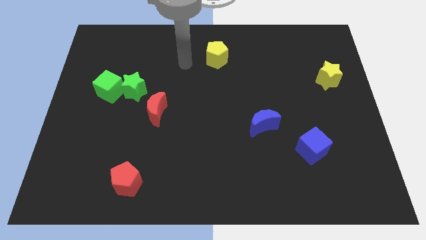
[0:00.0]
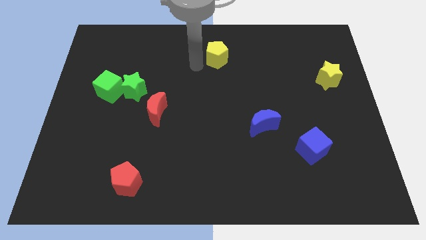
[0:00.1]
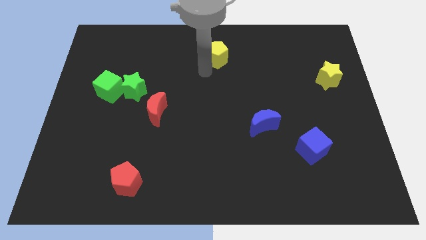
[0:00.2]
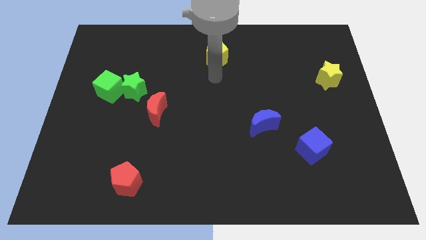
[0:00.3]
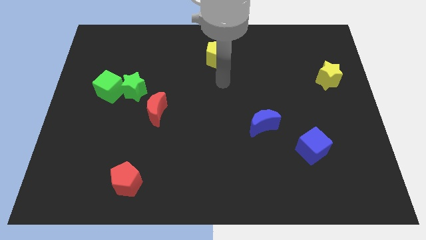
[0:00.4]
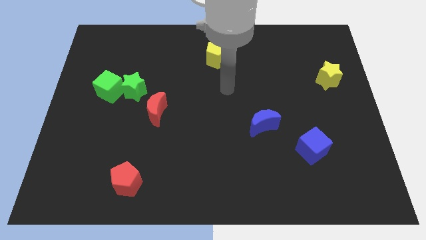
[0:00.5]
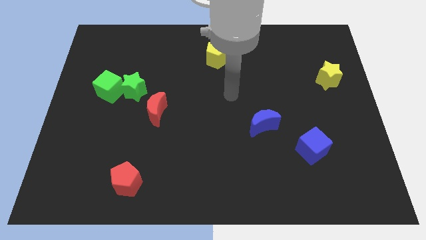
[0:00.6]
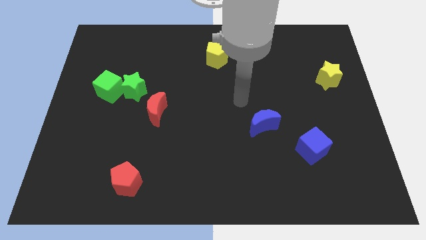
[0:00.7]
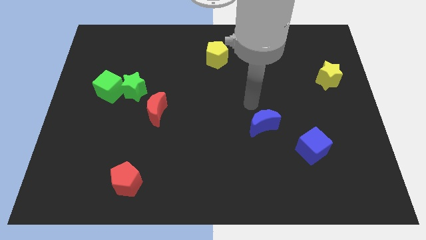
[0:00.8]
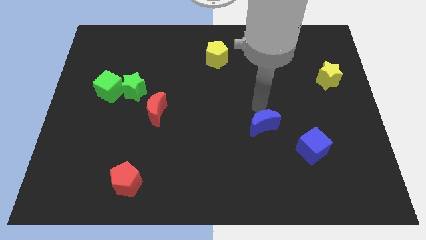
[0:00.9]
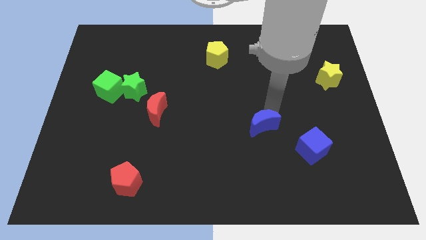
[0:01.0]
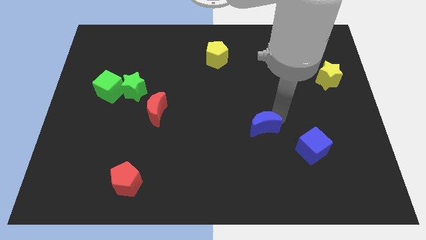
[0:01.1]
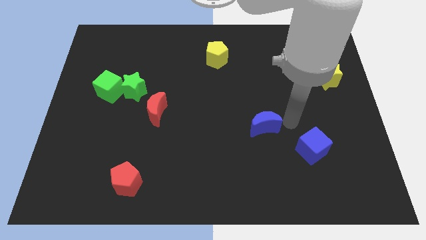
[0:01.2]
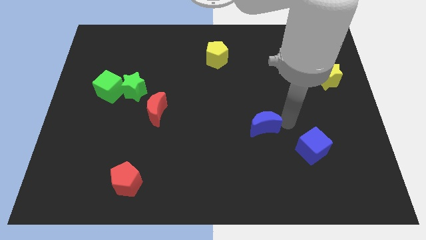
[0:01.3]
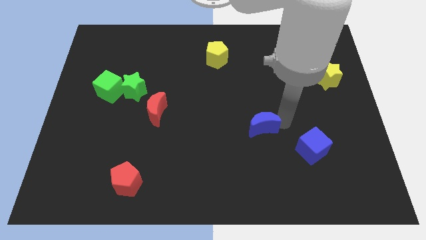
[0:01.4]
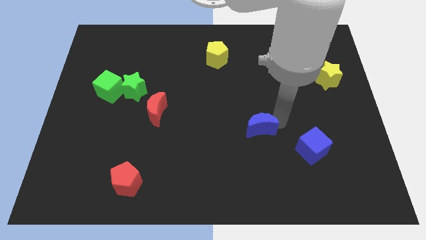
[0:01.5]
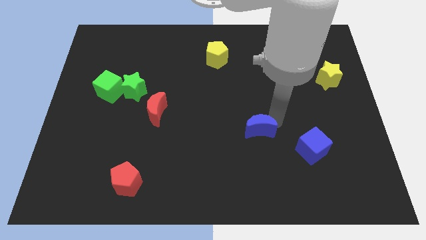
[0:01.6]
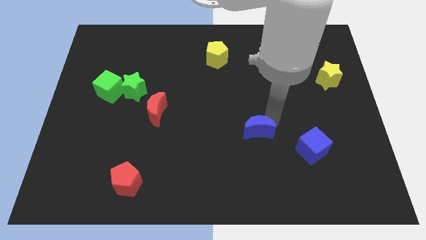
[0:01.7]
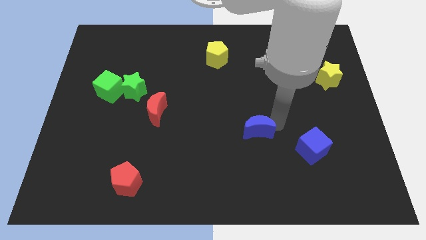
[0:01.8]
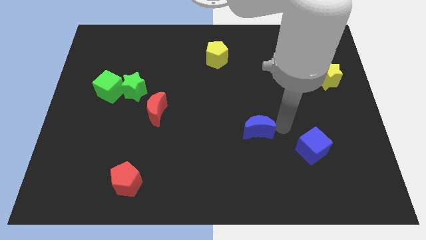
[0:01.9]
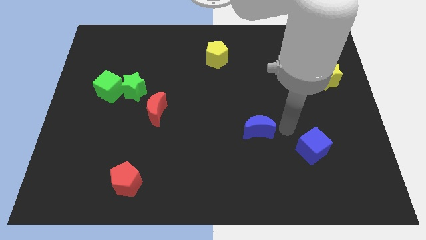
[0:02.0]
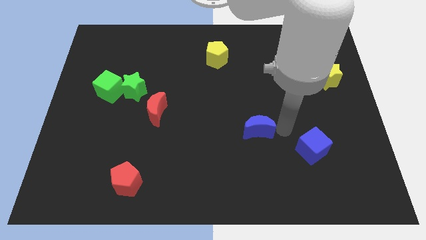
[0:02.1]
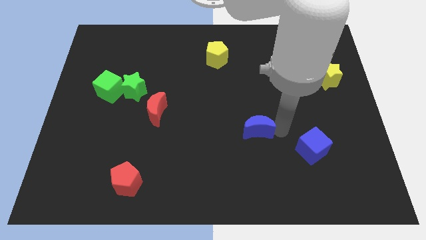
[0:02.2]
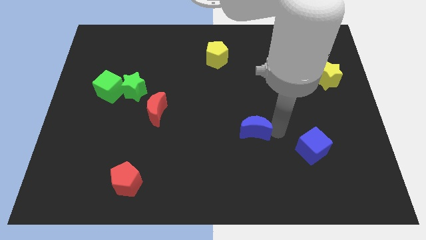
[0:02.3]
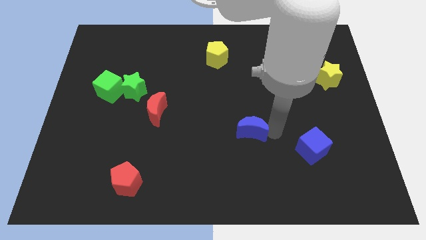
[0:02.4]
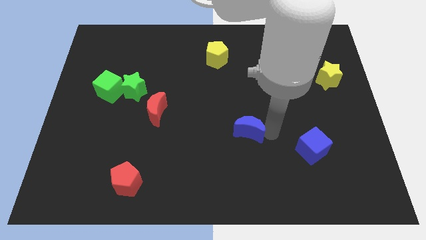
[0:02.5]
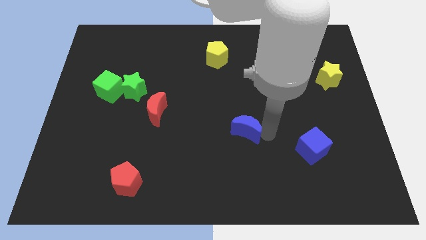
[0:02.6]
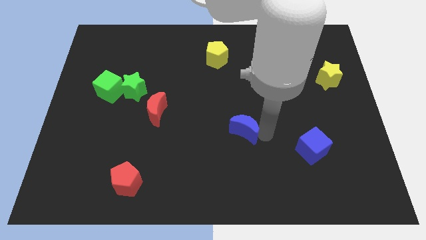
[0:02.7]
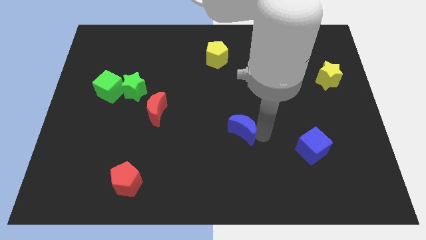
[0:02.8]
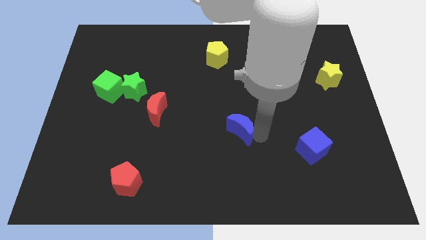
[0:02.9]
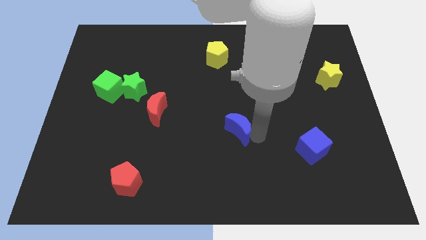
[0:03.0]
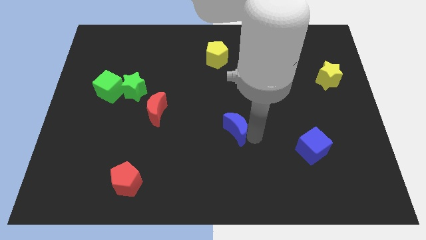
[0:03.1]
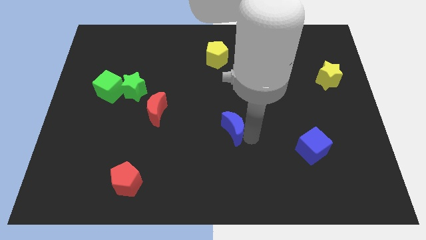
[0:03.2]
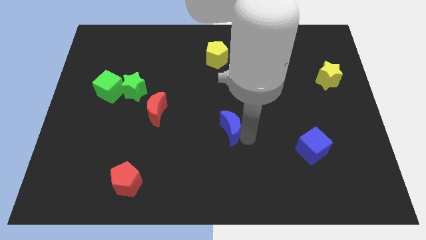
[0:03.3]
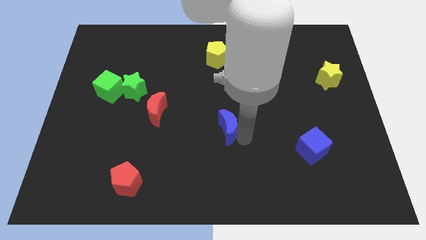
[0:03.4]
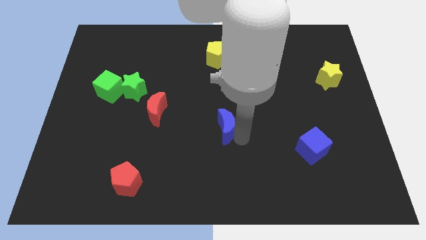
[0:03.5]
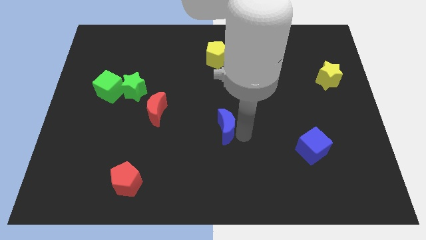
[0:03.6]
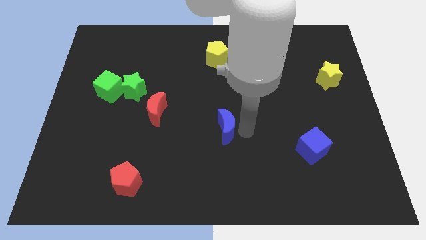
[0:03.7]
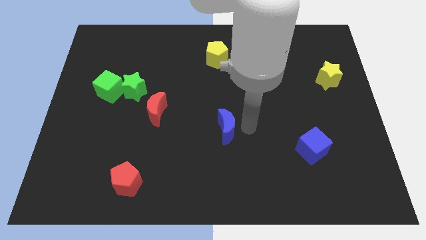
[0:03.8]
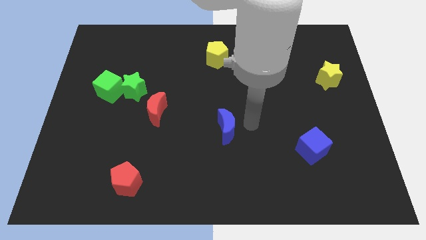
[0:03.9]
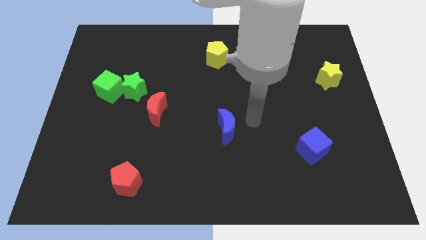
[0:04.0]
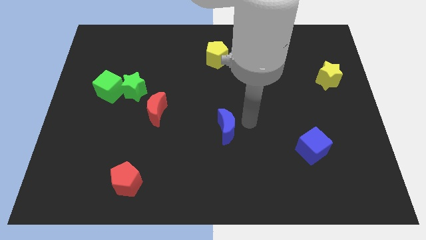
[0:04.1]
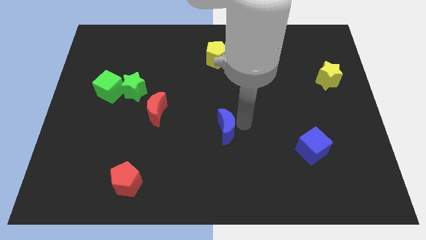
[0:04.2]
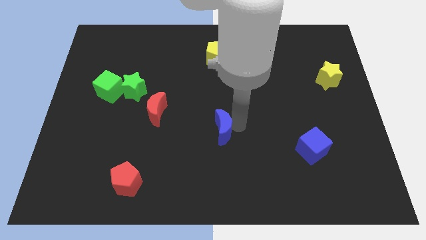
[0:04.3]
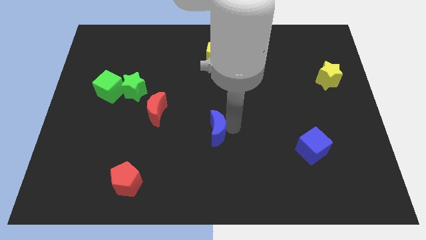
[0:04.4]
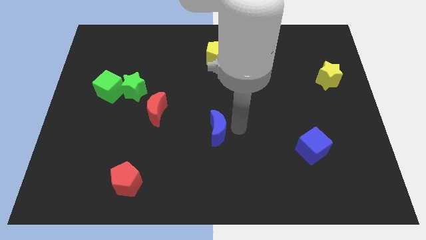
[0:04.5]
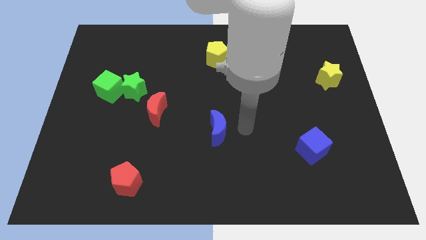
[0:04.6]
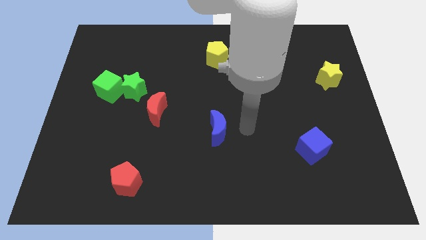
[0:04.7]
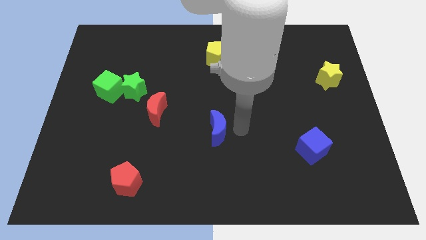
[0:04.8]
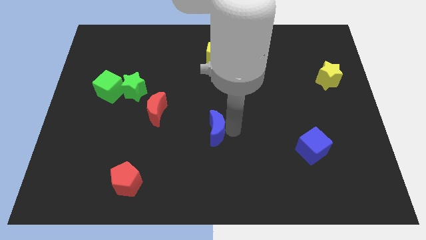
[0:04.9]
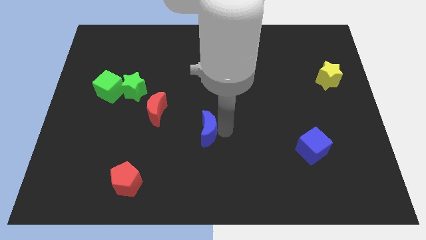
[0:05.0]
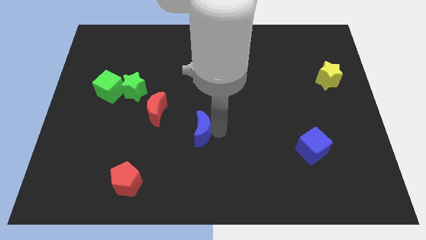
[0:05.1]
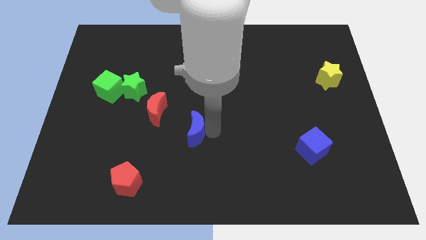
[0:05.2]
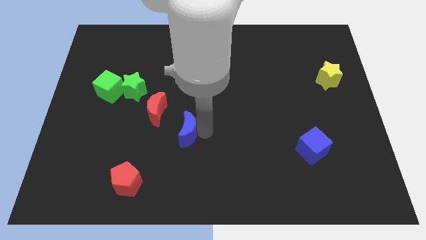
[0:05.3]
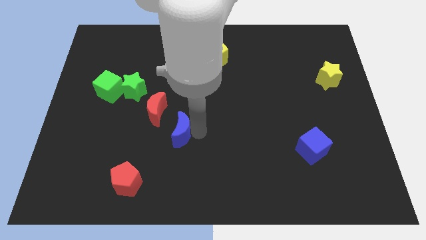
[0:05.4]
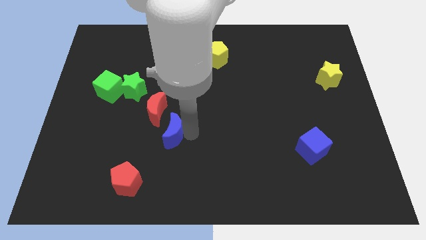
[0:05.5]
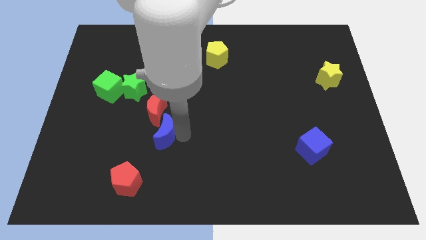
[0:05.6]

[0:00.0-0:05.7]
move the blue moon to the left

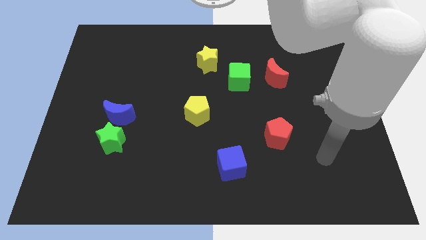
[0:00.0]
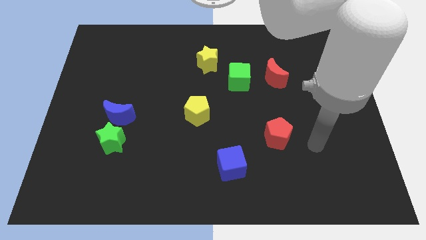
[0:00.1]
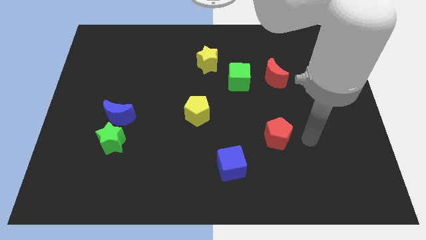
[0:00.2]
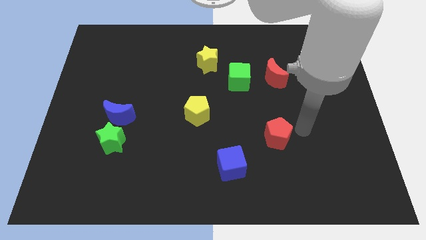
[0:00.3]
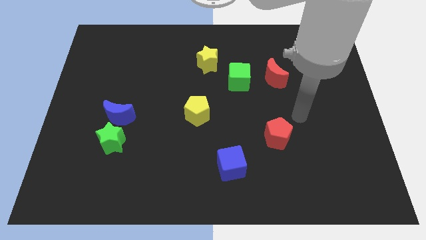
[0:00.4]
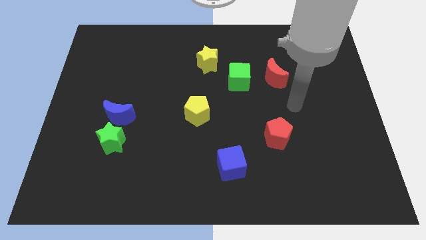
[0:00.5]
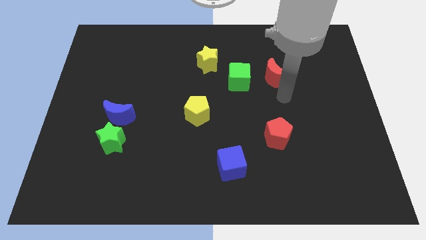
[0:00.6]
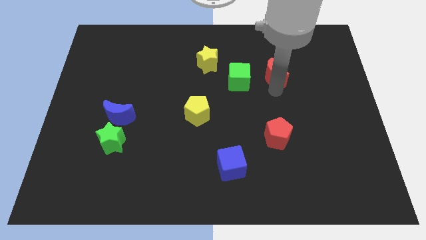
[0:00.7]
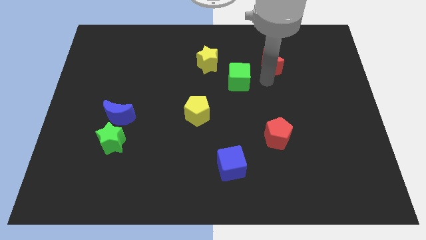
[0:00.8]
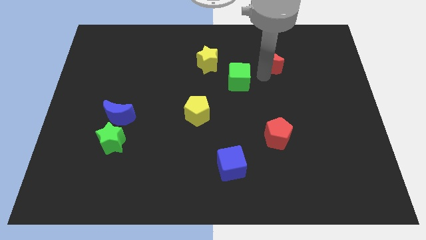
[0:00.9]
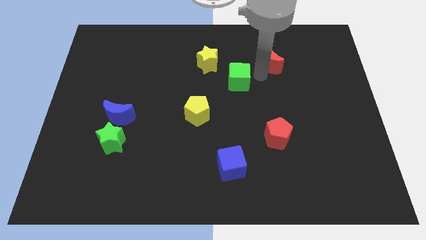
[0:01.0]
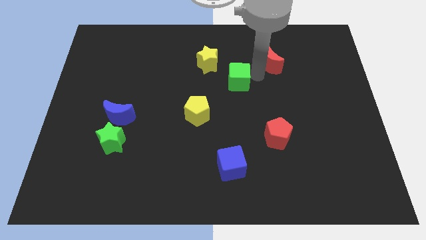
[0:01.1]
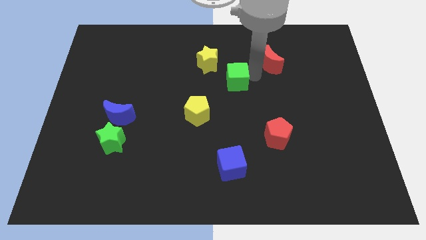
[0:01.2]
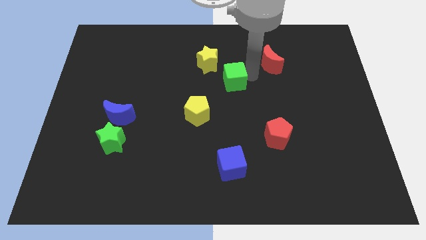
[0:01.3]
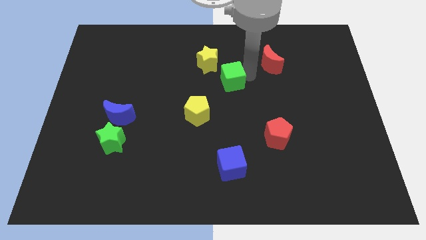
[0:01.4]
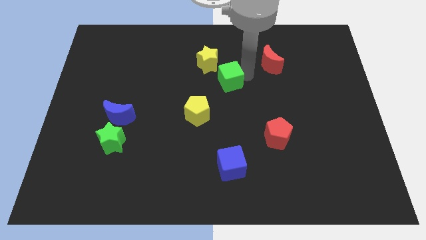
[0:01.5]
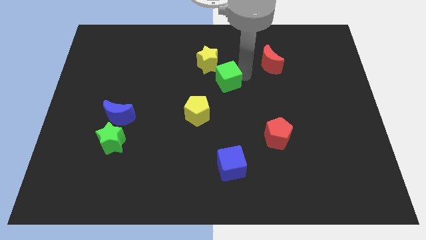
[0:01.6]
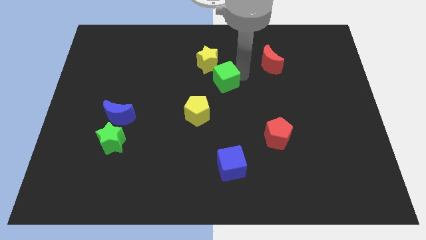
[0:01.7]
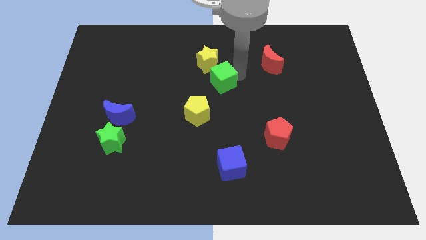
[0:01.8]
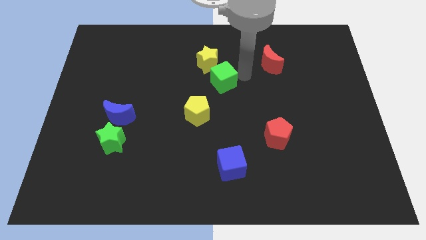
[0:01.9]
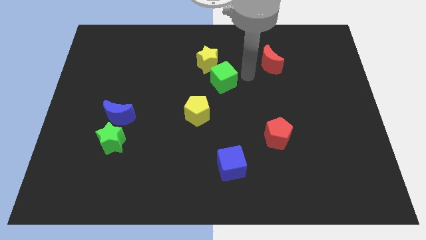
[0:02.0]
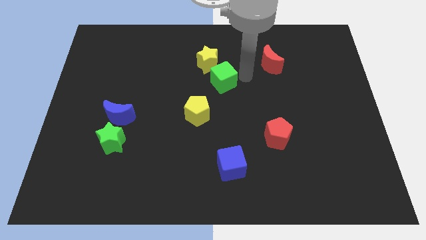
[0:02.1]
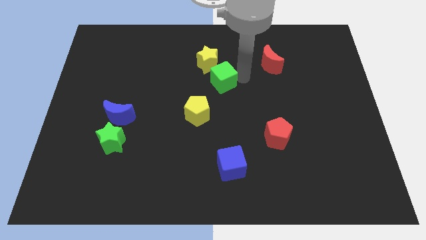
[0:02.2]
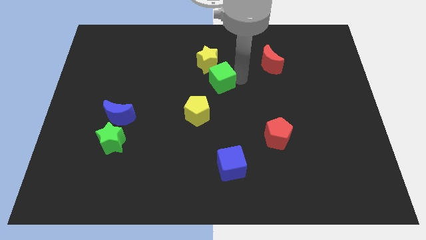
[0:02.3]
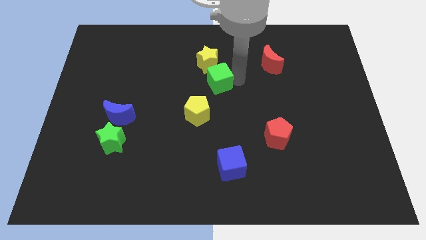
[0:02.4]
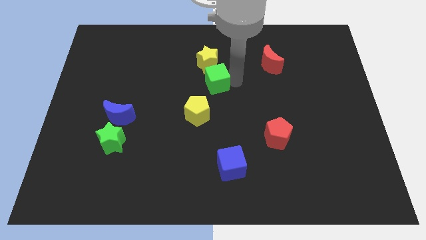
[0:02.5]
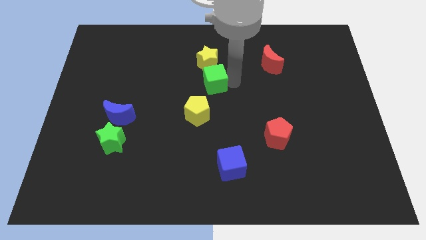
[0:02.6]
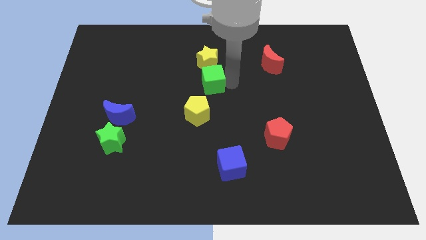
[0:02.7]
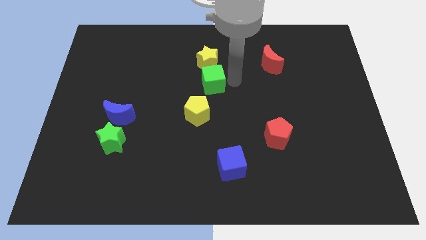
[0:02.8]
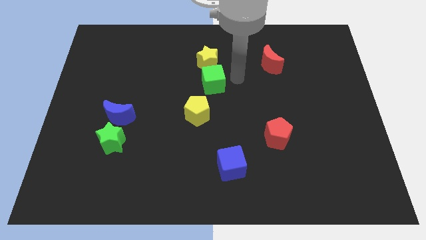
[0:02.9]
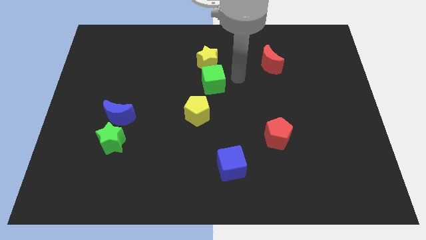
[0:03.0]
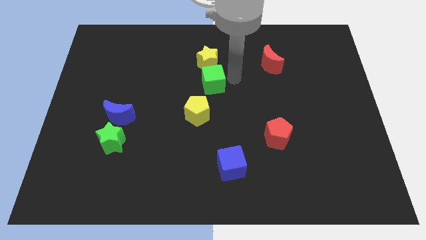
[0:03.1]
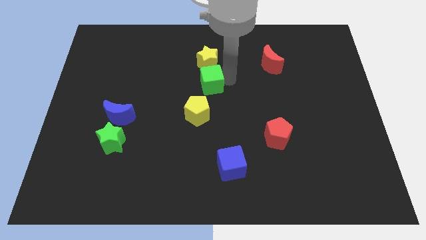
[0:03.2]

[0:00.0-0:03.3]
slightly push the green cube to the left
